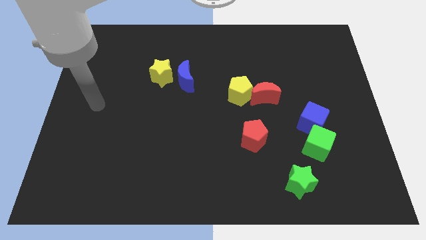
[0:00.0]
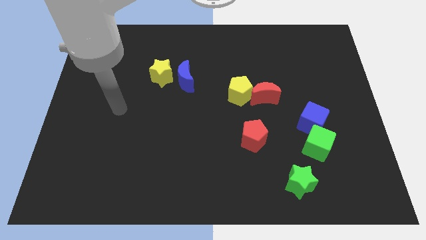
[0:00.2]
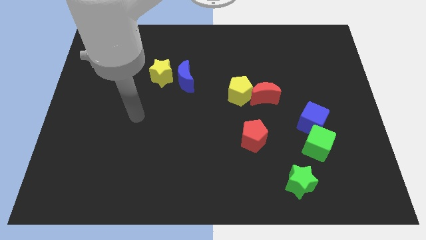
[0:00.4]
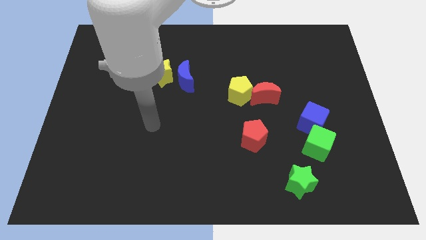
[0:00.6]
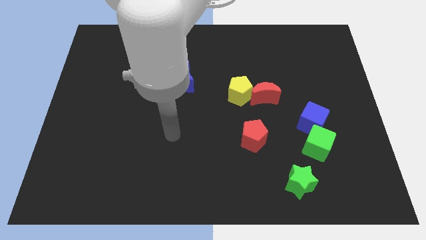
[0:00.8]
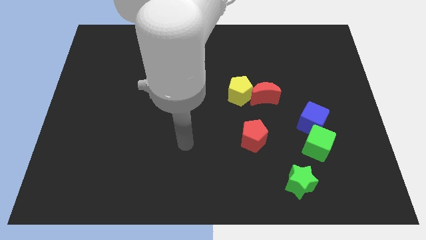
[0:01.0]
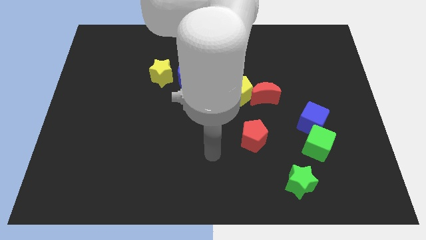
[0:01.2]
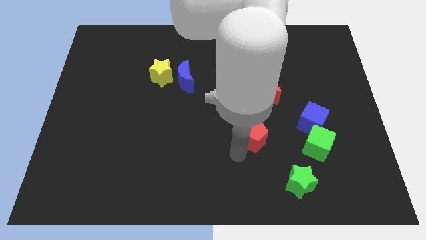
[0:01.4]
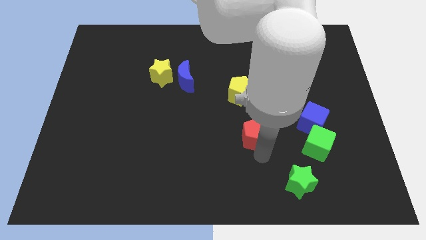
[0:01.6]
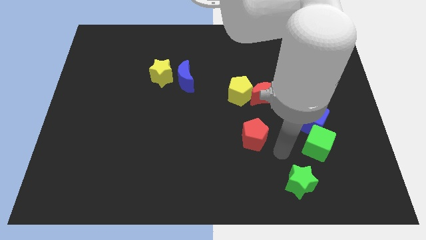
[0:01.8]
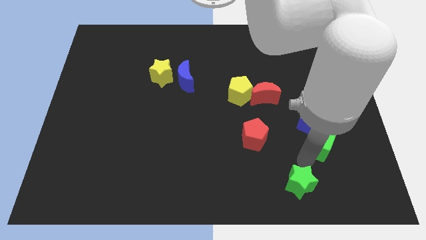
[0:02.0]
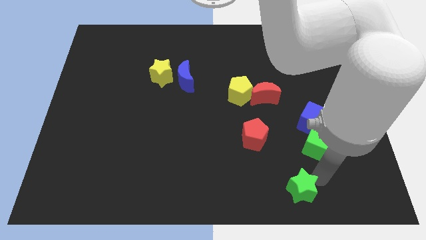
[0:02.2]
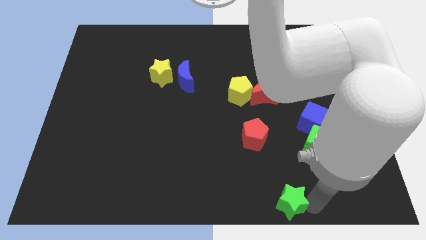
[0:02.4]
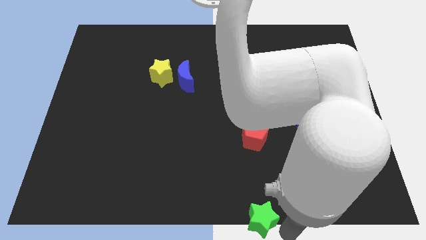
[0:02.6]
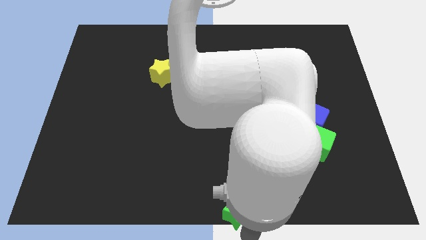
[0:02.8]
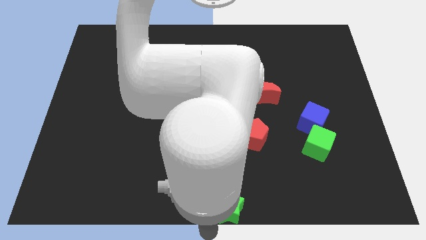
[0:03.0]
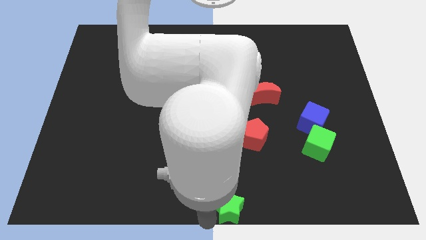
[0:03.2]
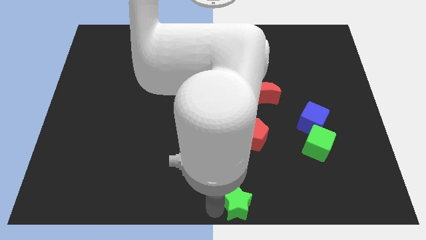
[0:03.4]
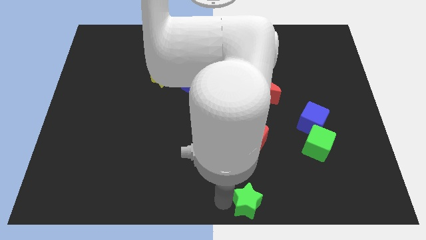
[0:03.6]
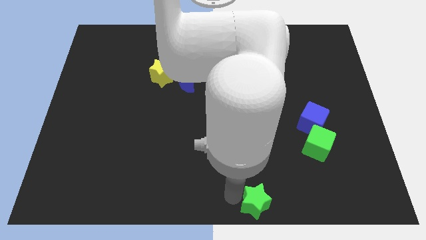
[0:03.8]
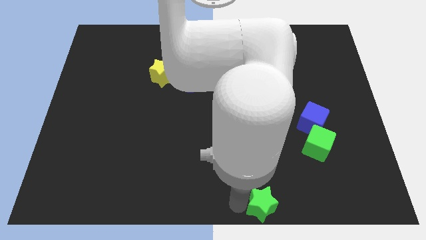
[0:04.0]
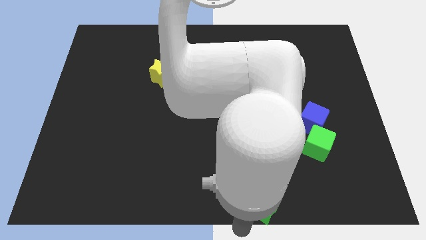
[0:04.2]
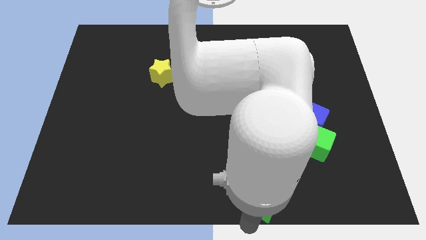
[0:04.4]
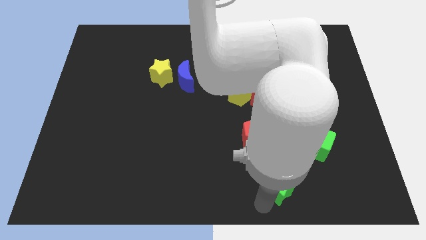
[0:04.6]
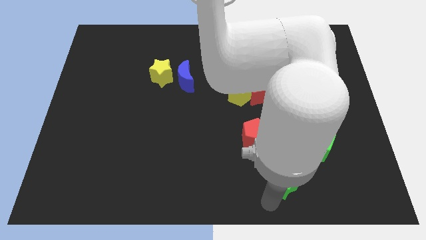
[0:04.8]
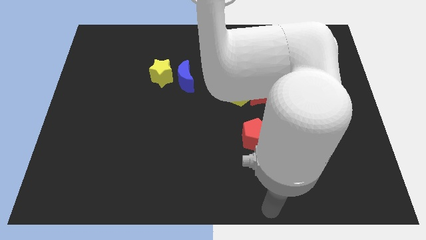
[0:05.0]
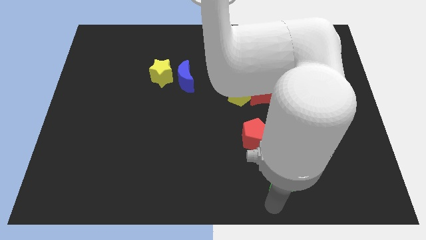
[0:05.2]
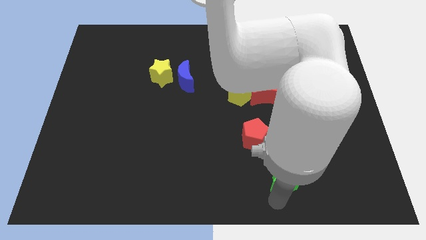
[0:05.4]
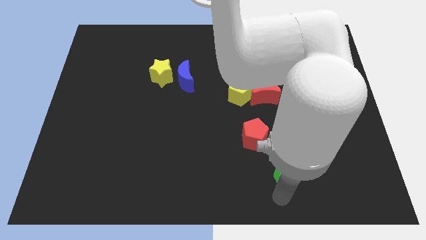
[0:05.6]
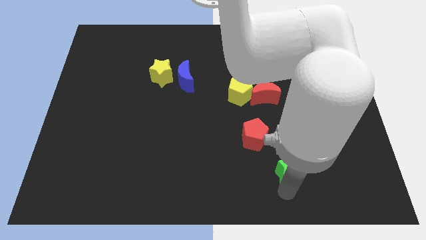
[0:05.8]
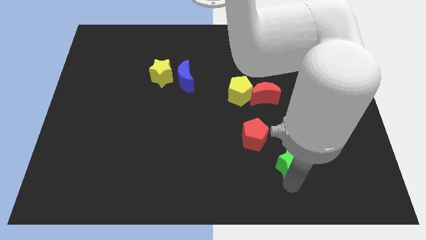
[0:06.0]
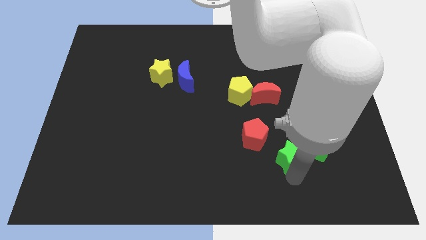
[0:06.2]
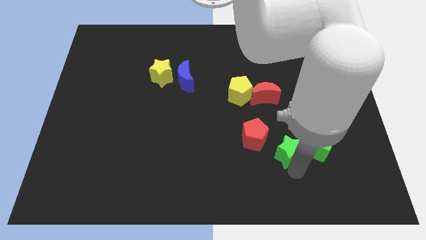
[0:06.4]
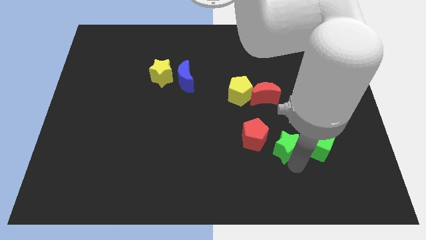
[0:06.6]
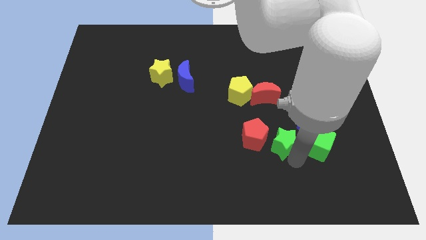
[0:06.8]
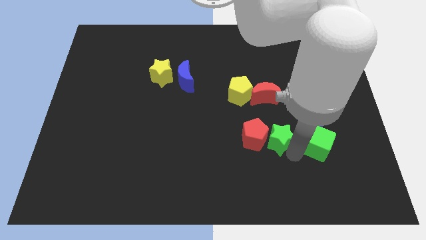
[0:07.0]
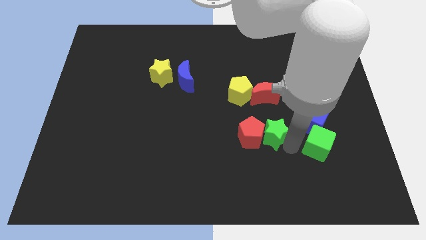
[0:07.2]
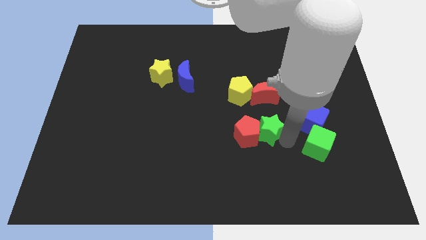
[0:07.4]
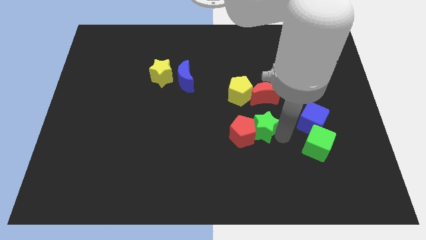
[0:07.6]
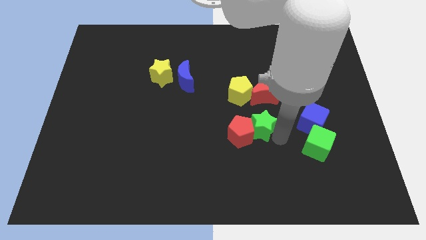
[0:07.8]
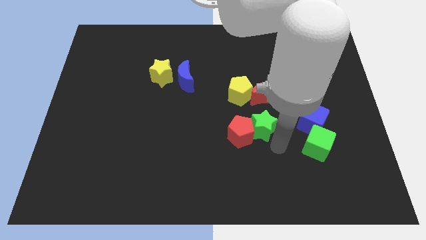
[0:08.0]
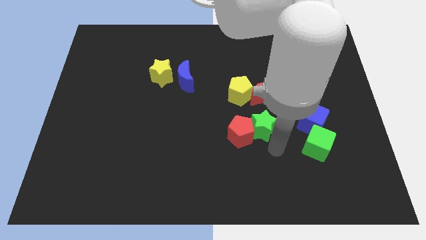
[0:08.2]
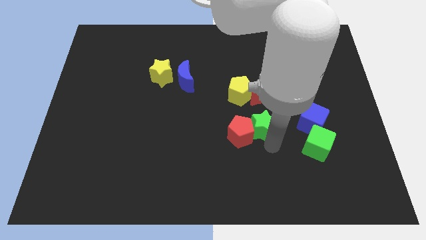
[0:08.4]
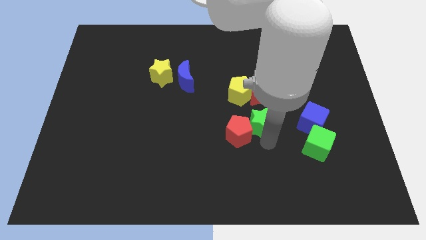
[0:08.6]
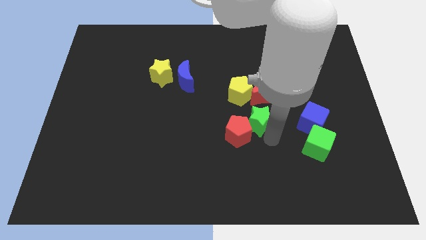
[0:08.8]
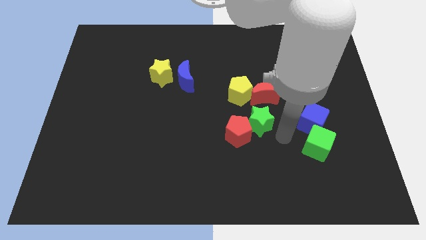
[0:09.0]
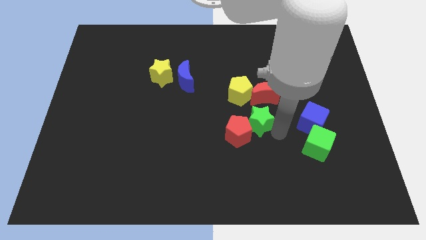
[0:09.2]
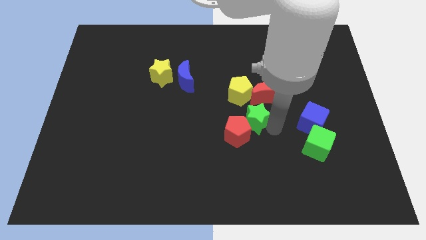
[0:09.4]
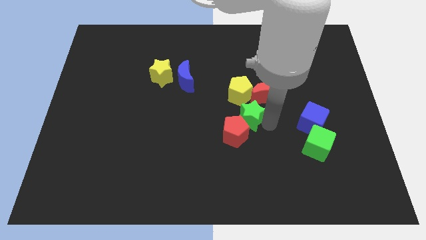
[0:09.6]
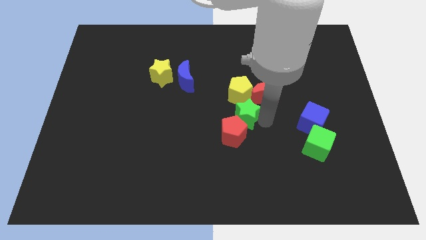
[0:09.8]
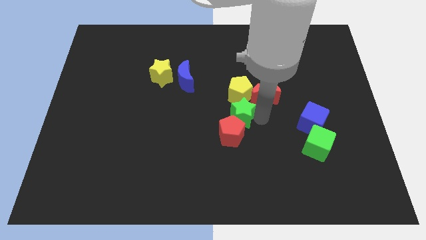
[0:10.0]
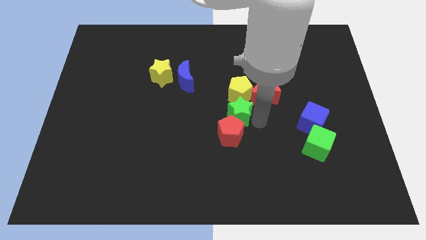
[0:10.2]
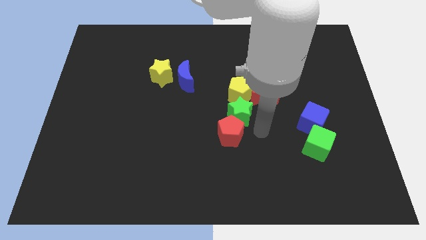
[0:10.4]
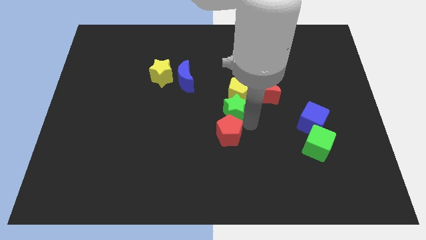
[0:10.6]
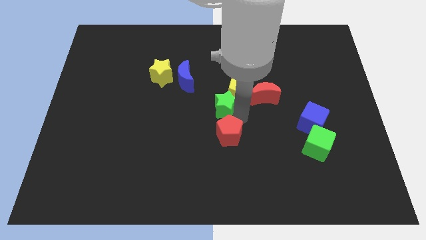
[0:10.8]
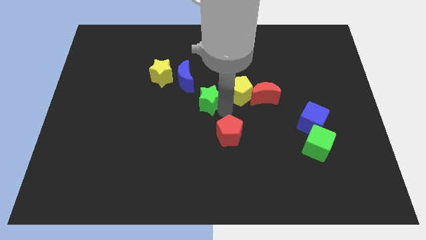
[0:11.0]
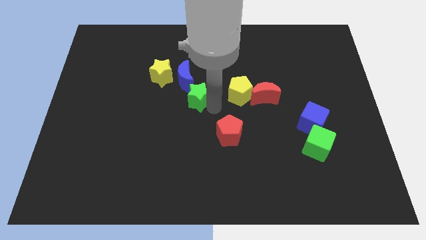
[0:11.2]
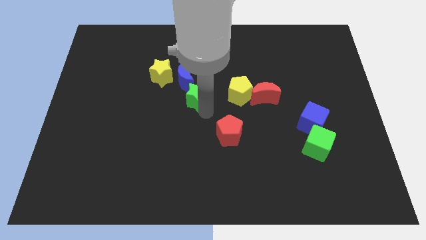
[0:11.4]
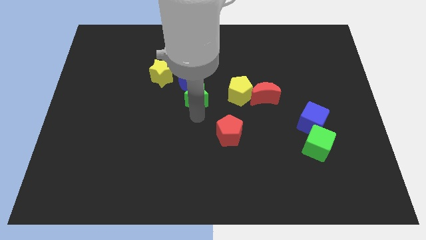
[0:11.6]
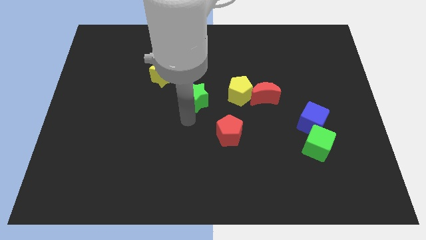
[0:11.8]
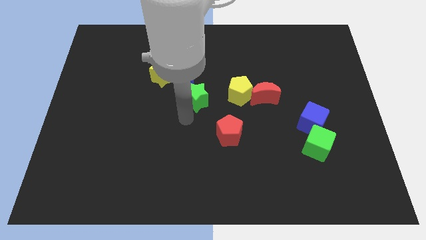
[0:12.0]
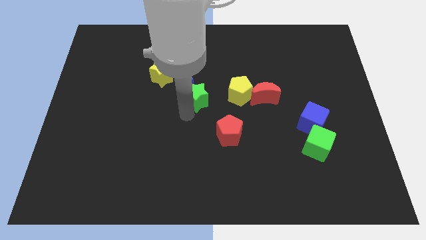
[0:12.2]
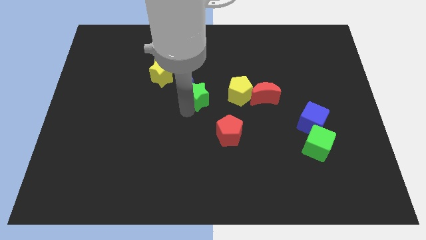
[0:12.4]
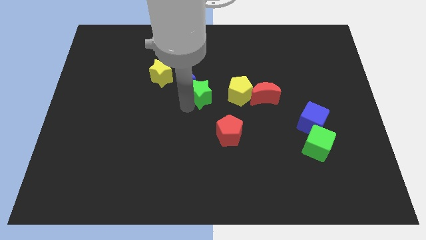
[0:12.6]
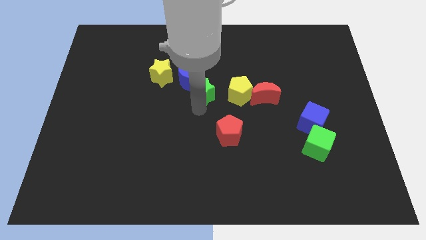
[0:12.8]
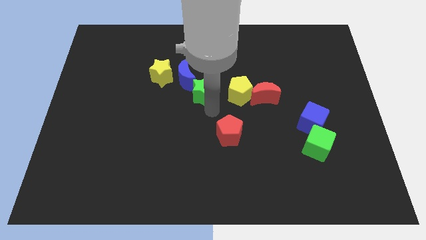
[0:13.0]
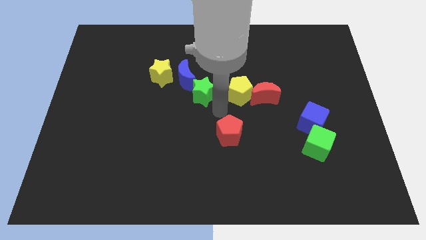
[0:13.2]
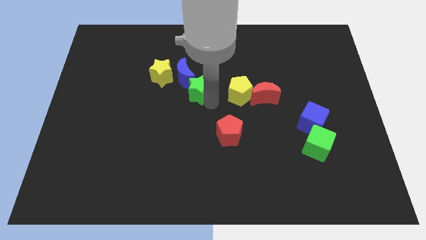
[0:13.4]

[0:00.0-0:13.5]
push the green star next to the blue moon
